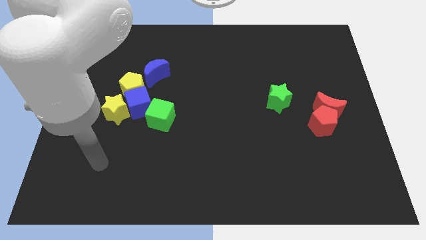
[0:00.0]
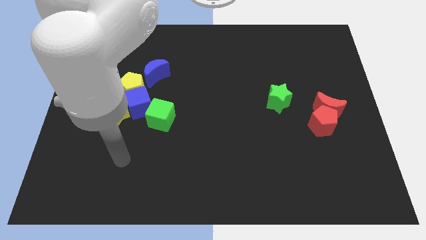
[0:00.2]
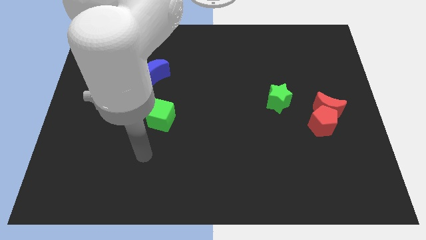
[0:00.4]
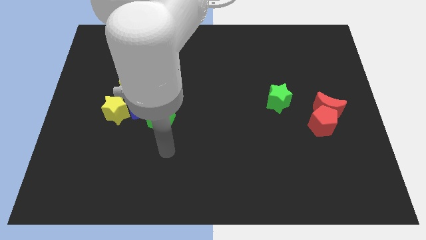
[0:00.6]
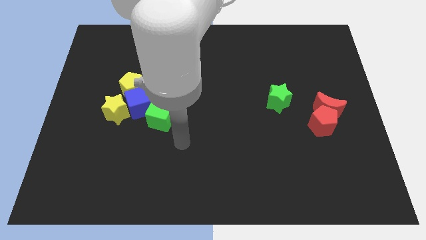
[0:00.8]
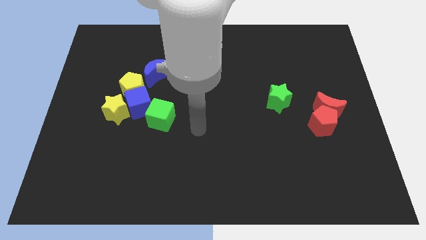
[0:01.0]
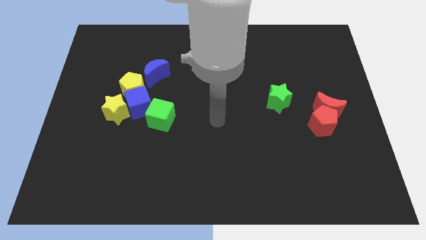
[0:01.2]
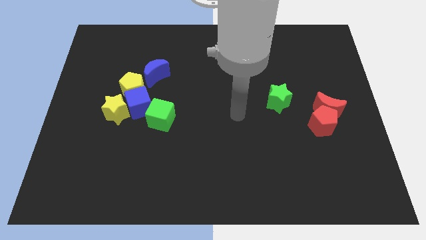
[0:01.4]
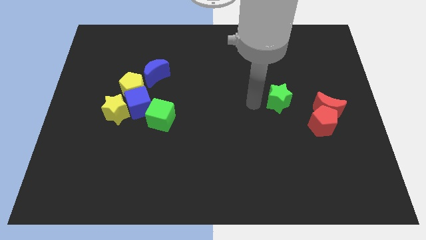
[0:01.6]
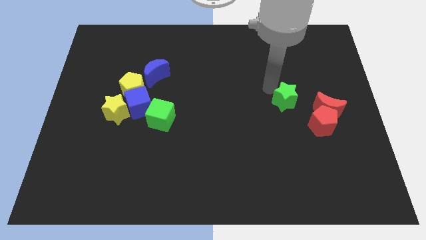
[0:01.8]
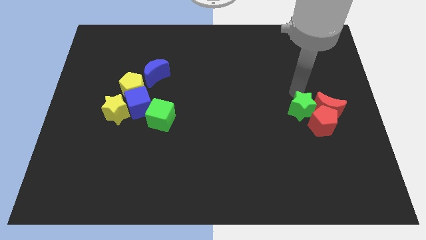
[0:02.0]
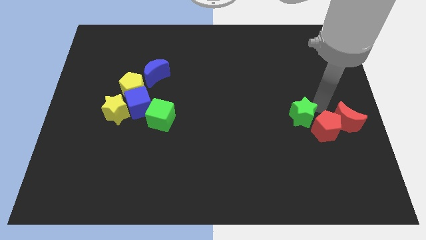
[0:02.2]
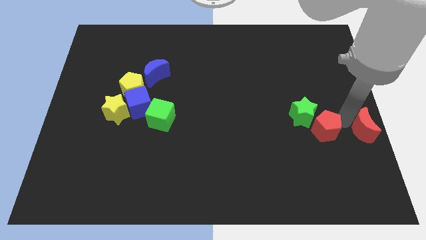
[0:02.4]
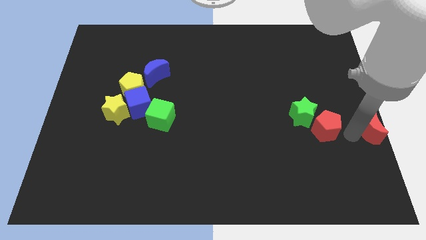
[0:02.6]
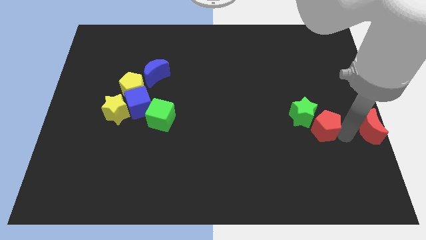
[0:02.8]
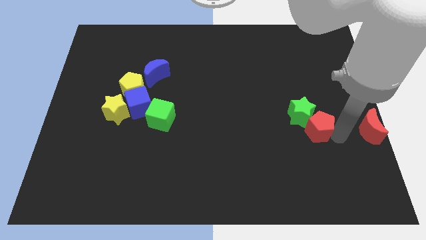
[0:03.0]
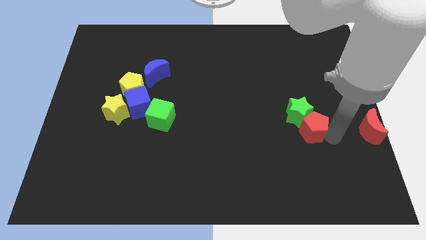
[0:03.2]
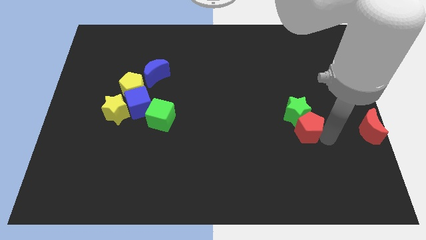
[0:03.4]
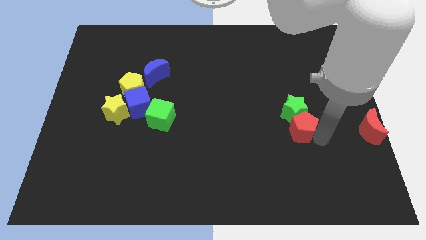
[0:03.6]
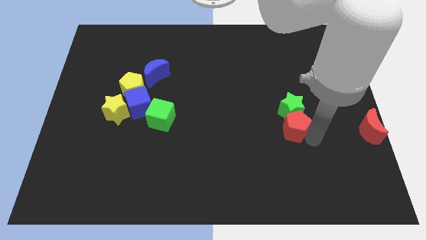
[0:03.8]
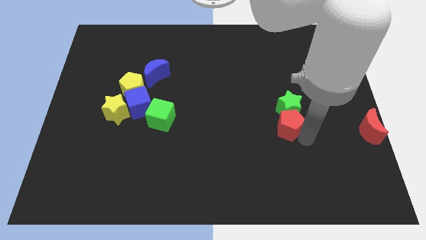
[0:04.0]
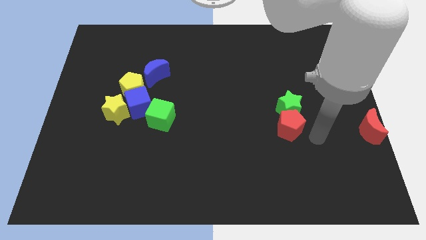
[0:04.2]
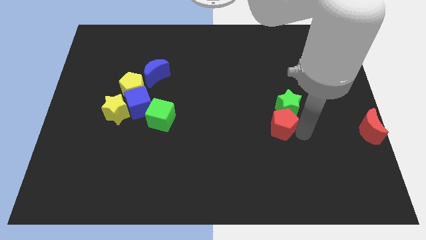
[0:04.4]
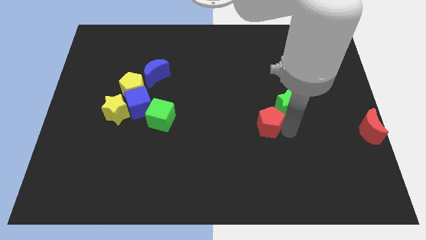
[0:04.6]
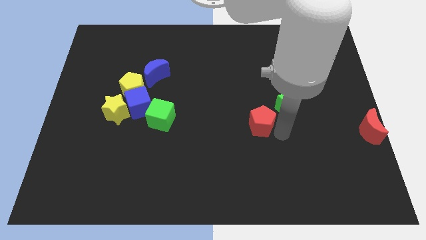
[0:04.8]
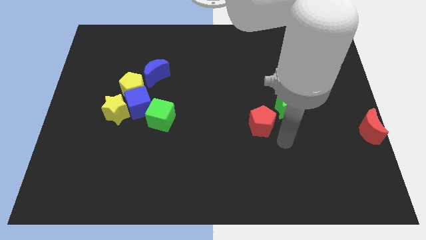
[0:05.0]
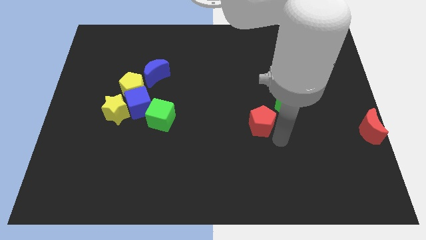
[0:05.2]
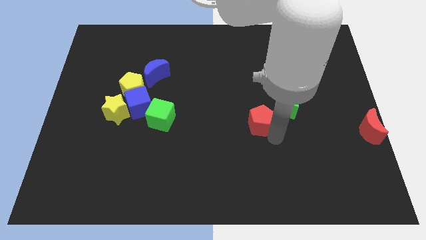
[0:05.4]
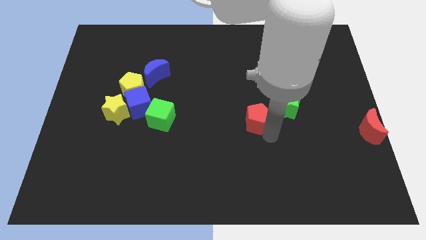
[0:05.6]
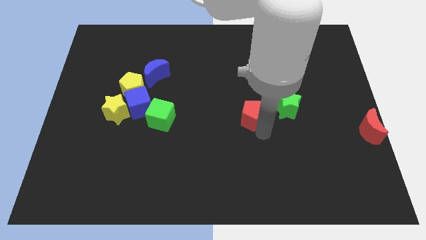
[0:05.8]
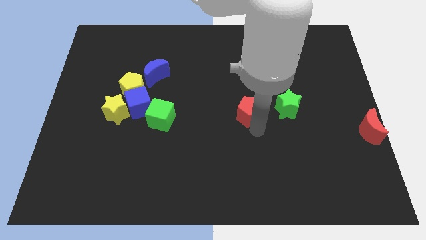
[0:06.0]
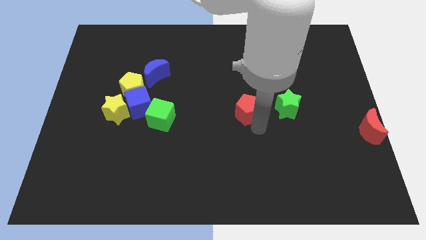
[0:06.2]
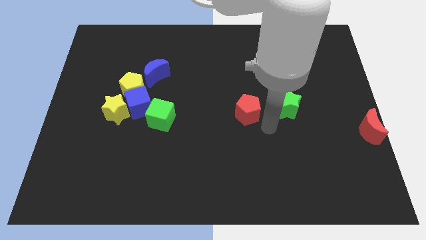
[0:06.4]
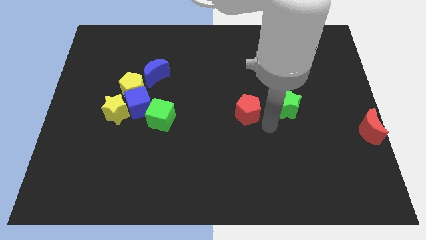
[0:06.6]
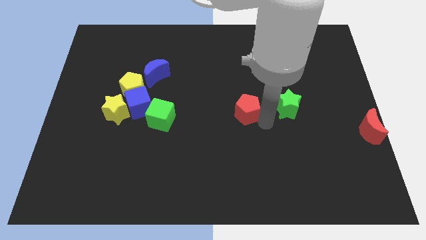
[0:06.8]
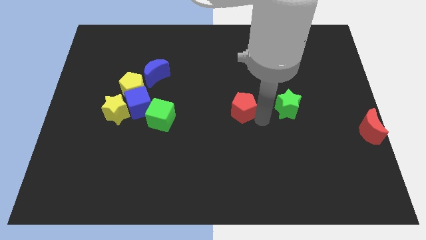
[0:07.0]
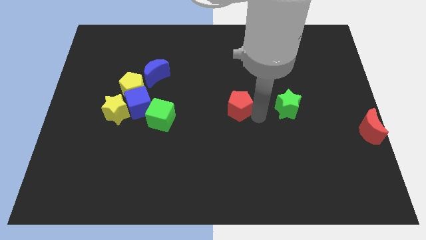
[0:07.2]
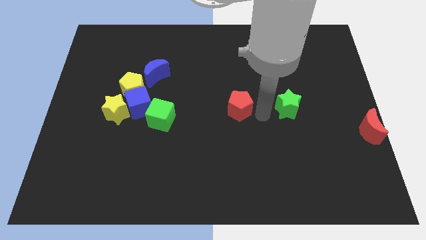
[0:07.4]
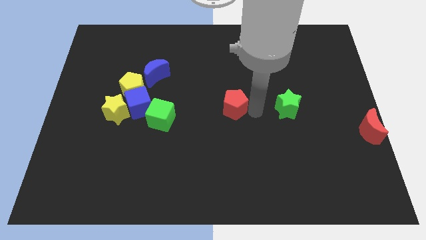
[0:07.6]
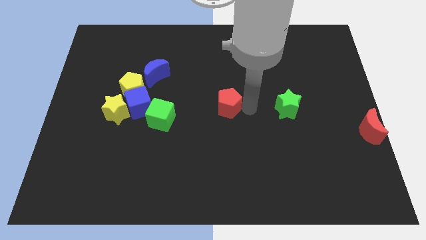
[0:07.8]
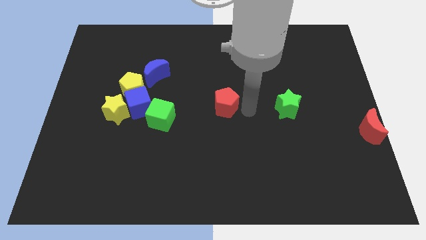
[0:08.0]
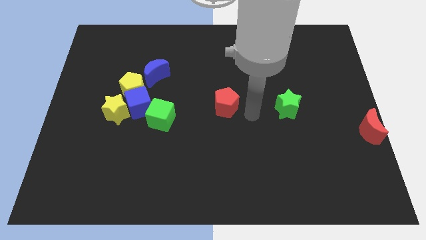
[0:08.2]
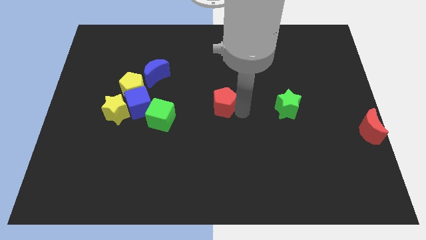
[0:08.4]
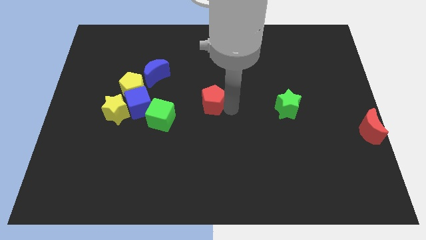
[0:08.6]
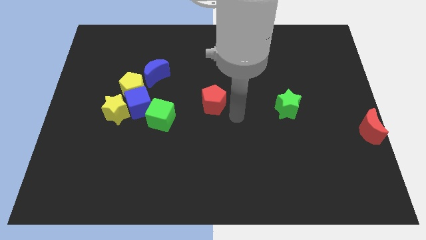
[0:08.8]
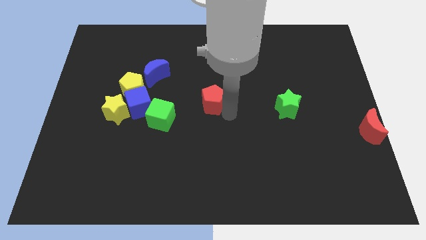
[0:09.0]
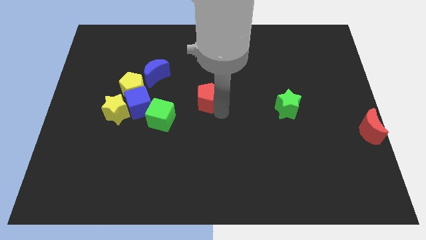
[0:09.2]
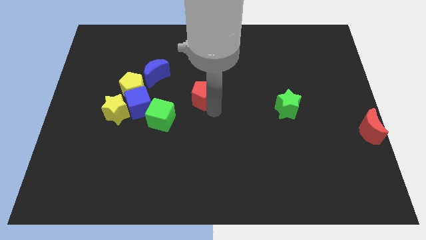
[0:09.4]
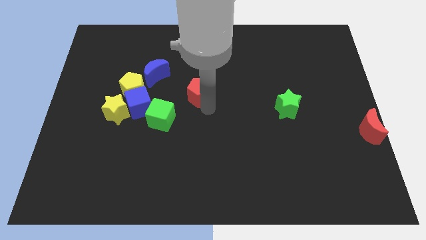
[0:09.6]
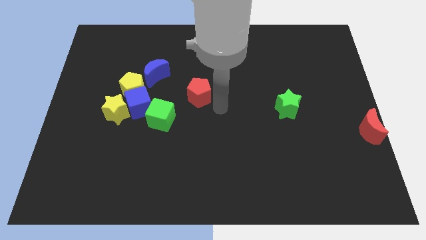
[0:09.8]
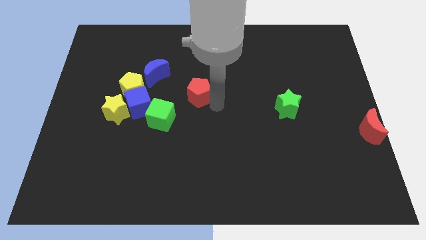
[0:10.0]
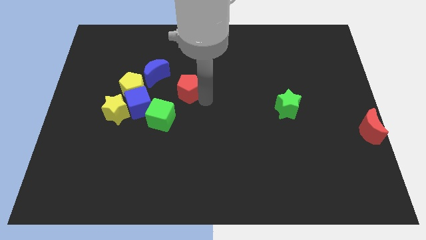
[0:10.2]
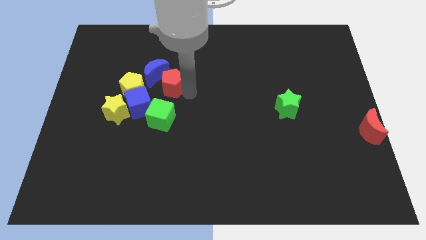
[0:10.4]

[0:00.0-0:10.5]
put the red pentagon towards the blue moon

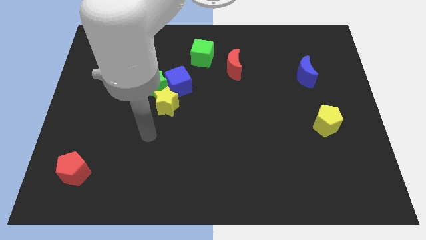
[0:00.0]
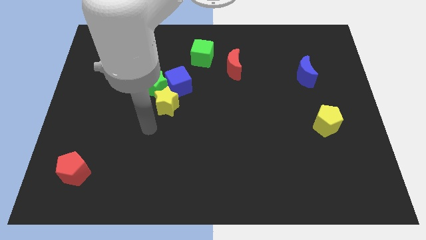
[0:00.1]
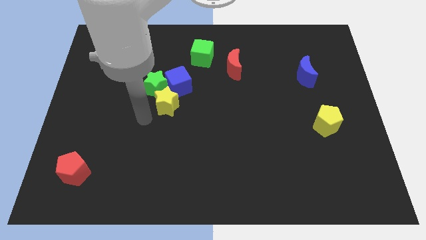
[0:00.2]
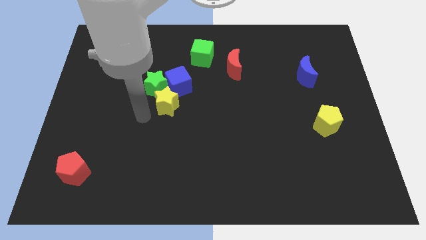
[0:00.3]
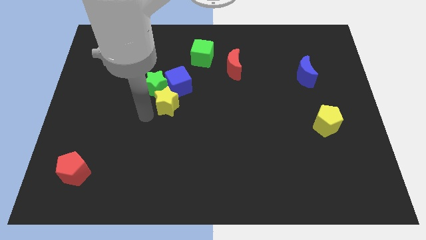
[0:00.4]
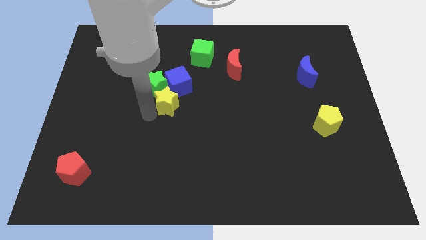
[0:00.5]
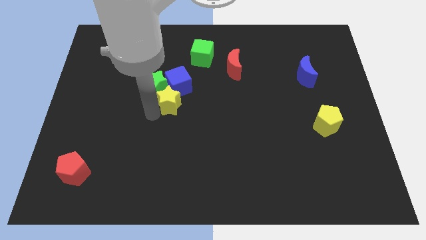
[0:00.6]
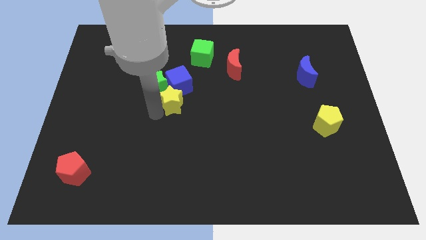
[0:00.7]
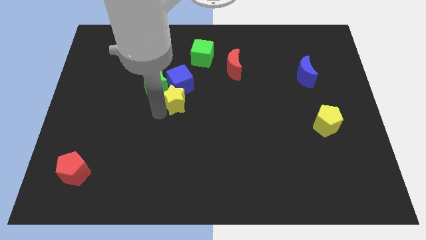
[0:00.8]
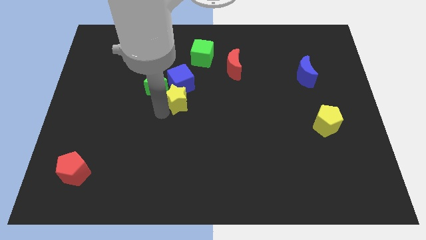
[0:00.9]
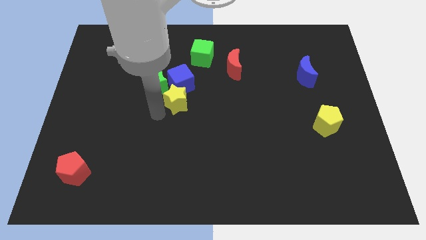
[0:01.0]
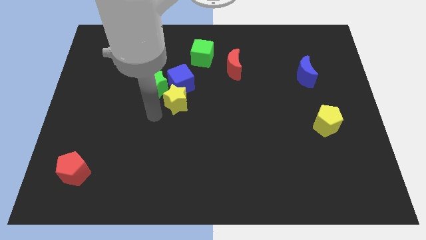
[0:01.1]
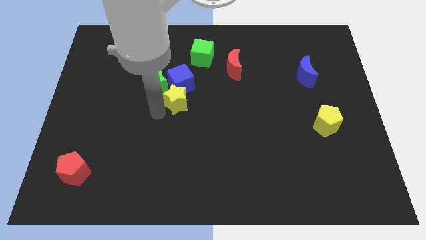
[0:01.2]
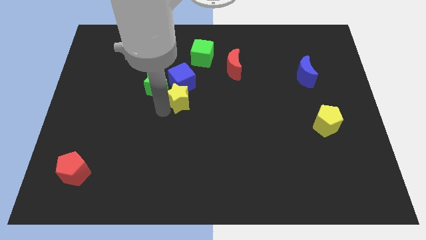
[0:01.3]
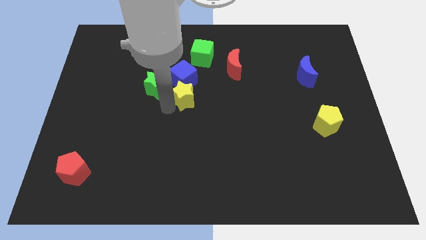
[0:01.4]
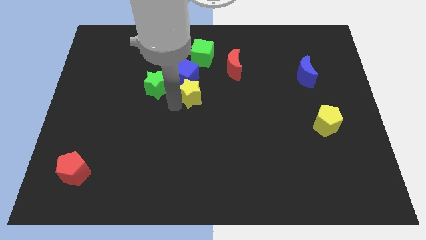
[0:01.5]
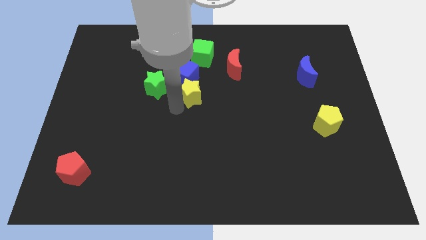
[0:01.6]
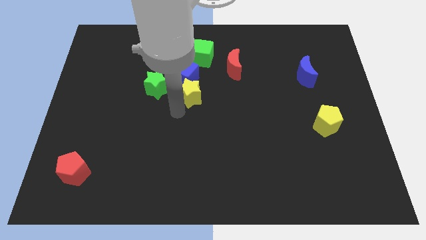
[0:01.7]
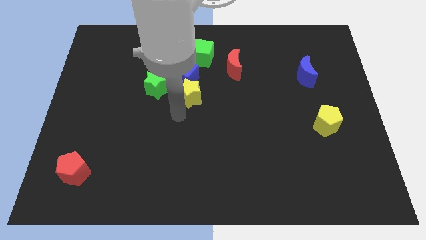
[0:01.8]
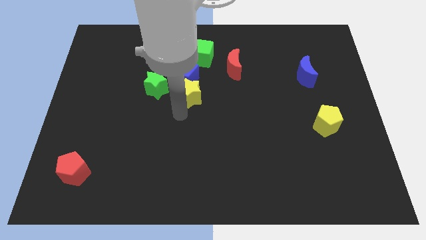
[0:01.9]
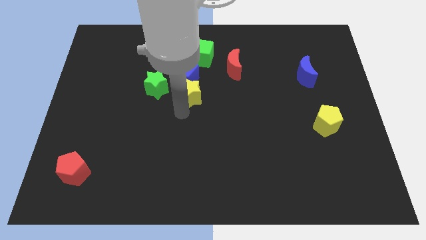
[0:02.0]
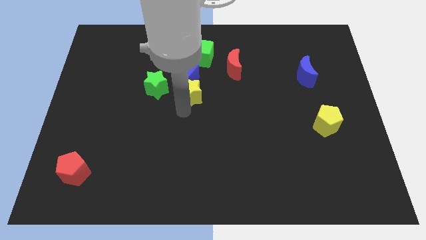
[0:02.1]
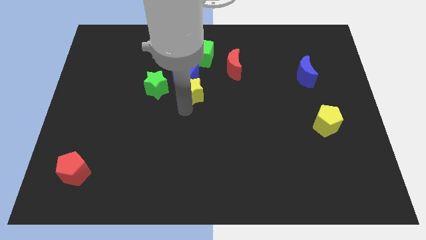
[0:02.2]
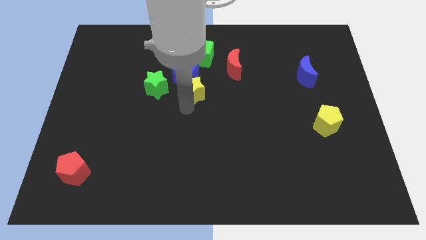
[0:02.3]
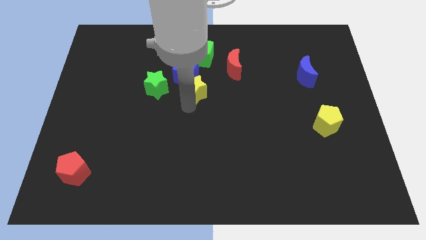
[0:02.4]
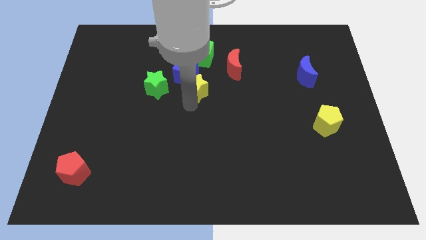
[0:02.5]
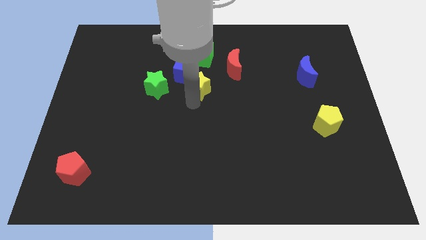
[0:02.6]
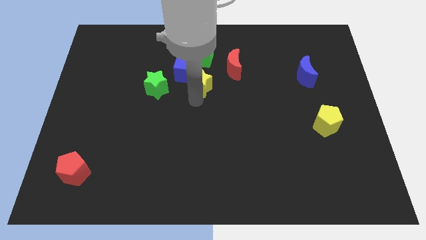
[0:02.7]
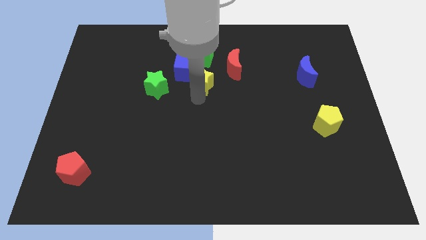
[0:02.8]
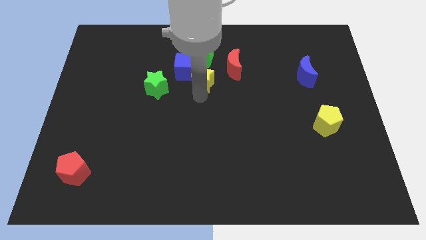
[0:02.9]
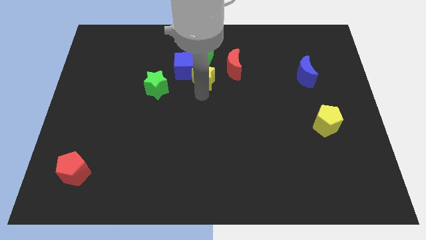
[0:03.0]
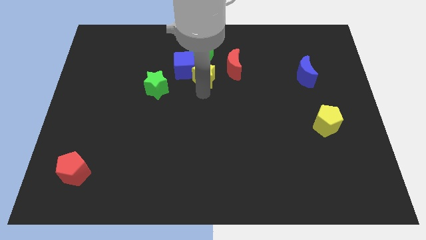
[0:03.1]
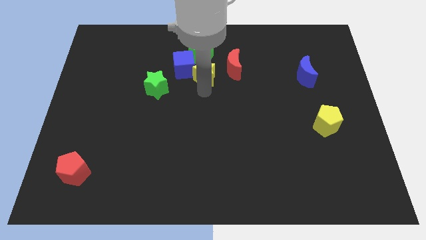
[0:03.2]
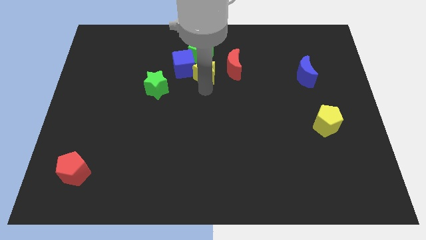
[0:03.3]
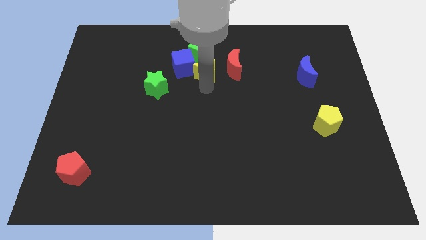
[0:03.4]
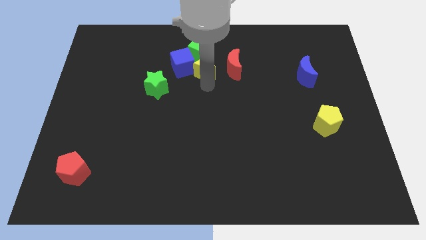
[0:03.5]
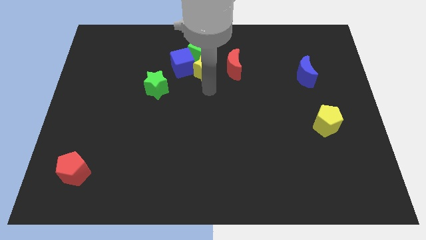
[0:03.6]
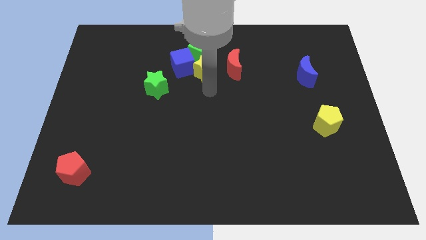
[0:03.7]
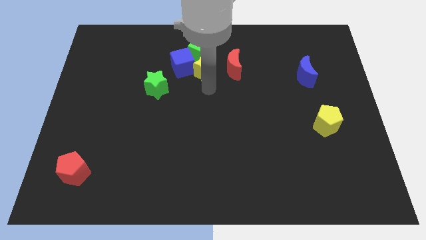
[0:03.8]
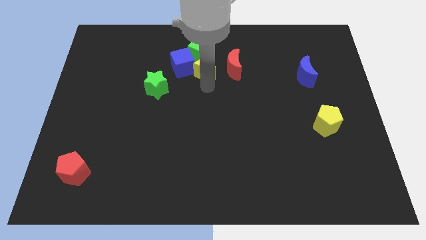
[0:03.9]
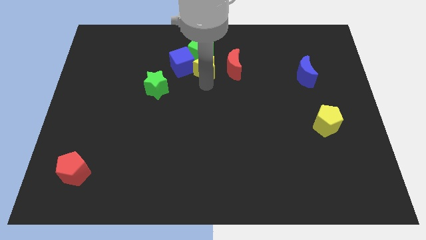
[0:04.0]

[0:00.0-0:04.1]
put the yellow star towards the green cube
